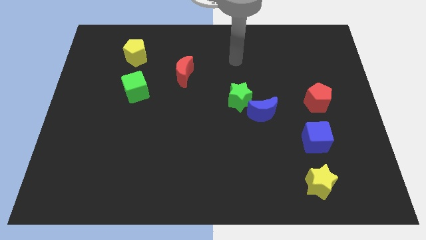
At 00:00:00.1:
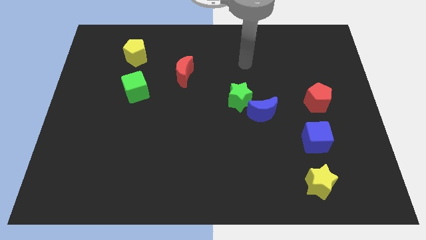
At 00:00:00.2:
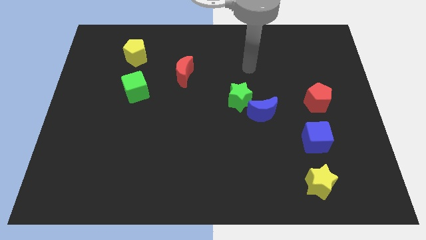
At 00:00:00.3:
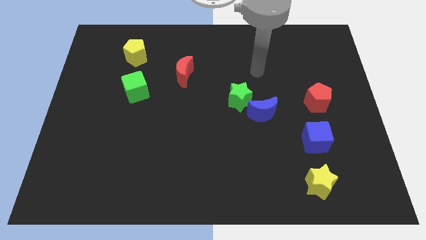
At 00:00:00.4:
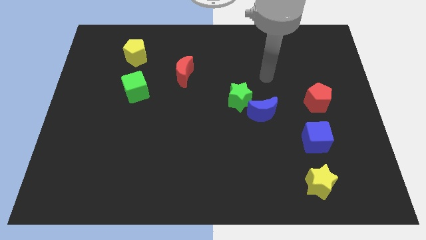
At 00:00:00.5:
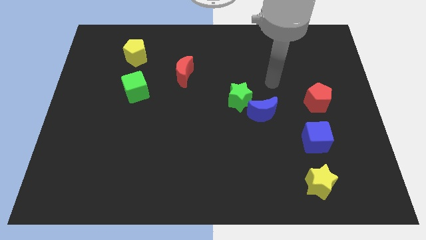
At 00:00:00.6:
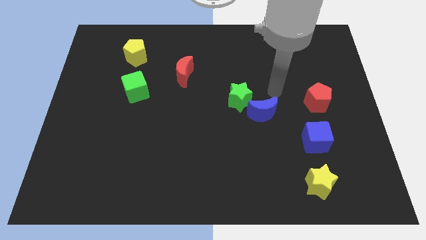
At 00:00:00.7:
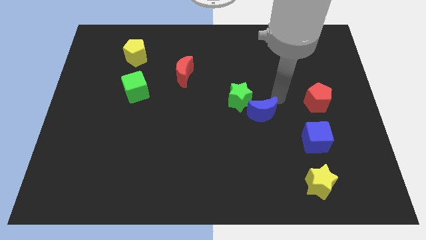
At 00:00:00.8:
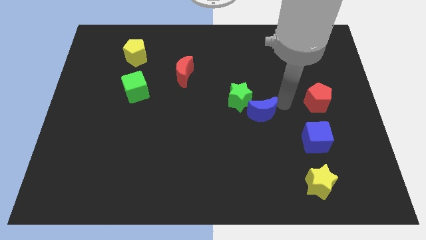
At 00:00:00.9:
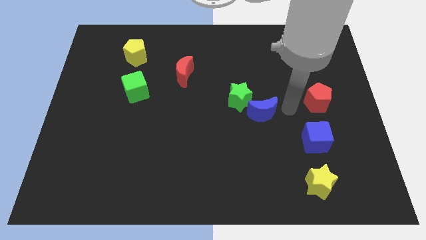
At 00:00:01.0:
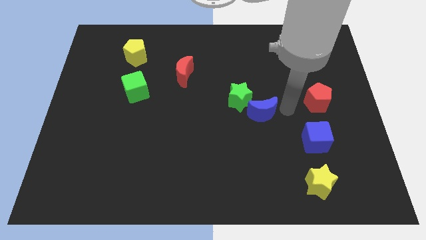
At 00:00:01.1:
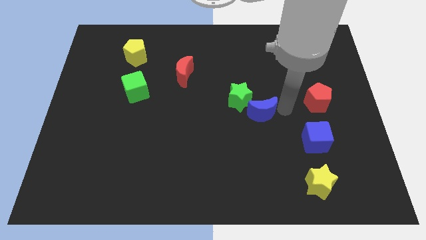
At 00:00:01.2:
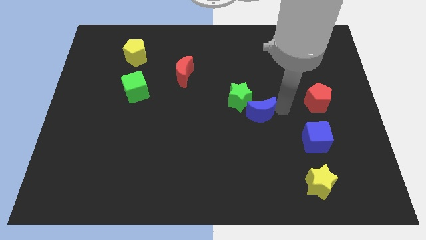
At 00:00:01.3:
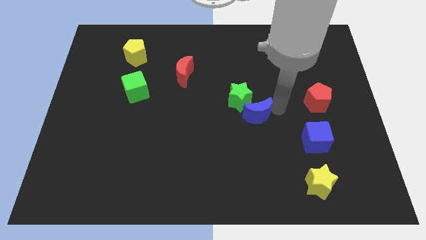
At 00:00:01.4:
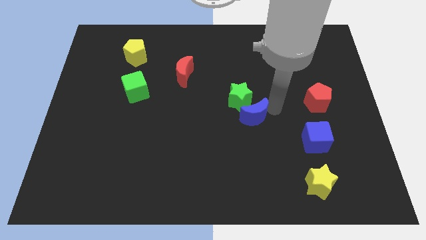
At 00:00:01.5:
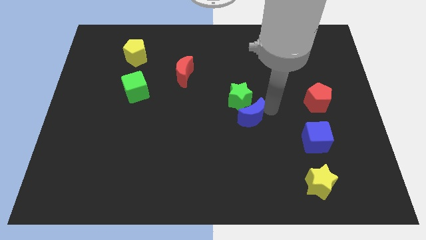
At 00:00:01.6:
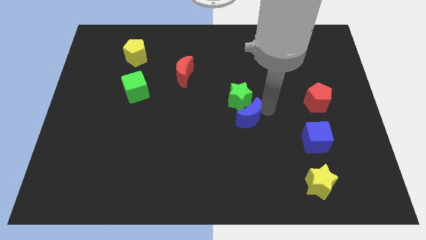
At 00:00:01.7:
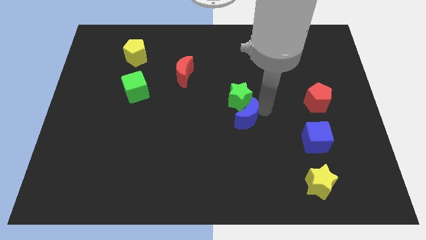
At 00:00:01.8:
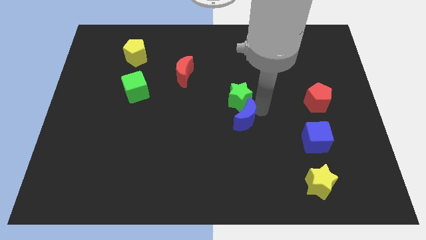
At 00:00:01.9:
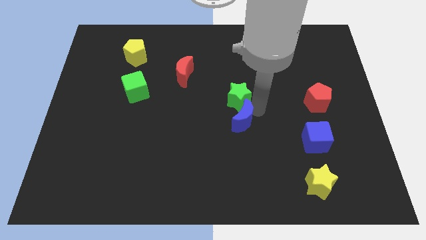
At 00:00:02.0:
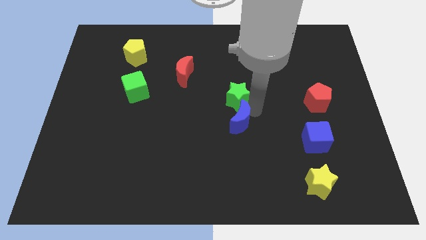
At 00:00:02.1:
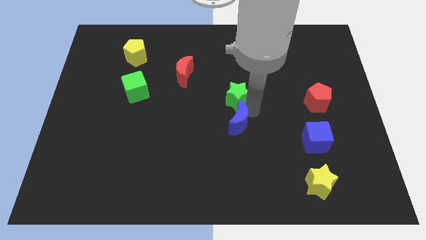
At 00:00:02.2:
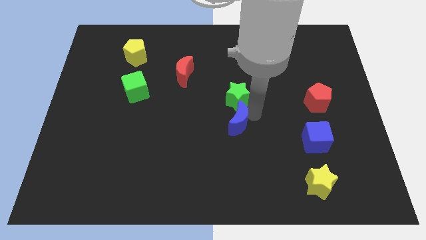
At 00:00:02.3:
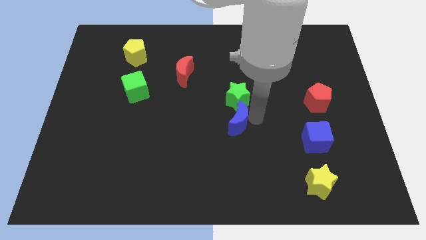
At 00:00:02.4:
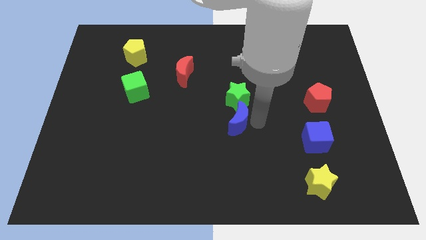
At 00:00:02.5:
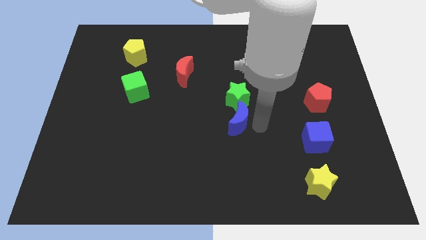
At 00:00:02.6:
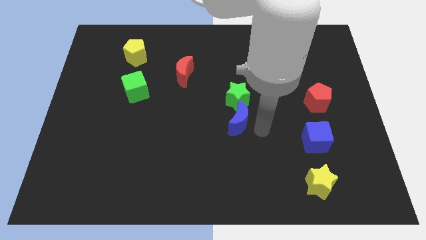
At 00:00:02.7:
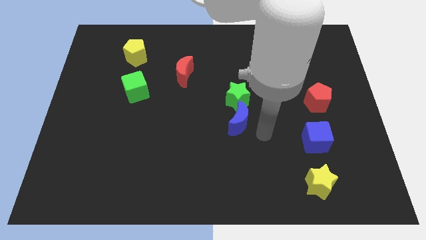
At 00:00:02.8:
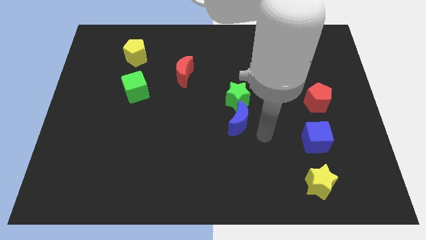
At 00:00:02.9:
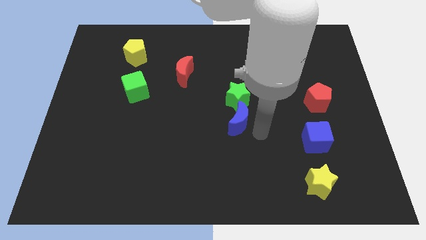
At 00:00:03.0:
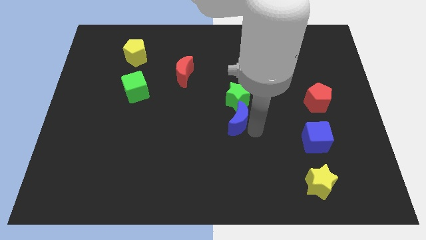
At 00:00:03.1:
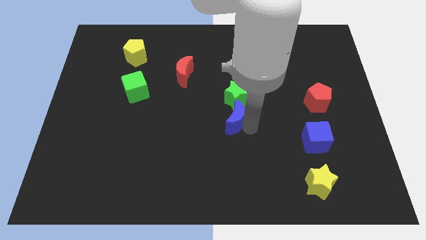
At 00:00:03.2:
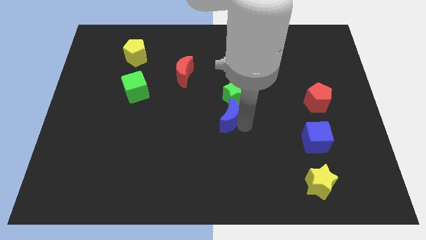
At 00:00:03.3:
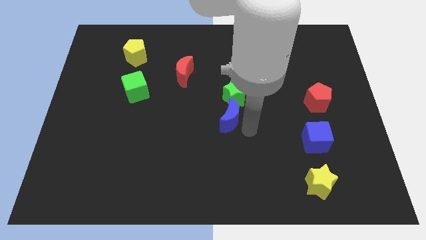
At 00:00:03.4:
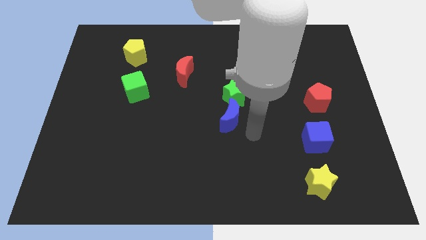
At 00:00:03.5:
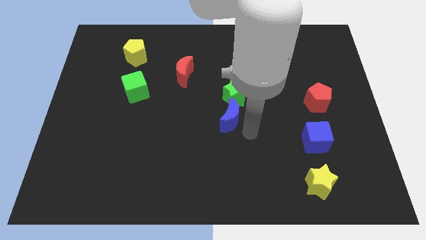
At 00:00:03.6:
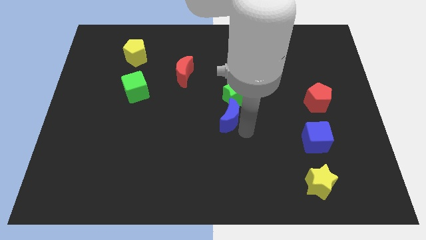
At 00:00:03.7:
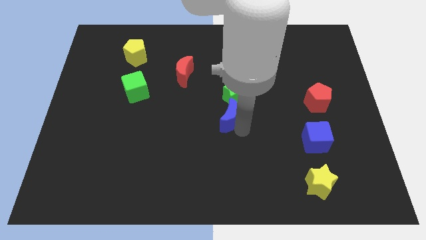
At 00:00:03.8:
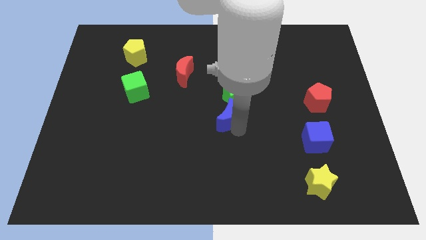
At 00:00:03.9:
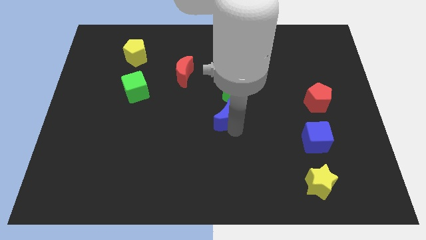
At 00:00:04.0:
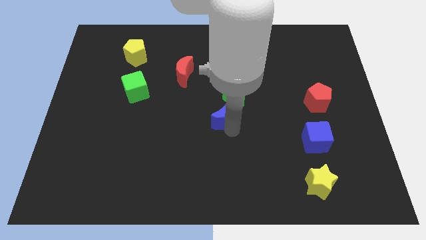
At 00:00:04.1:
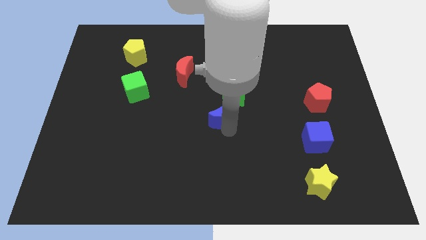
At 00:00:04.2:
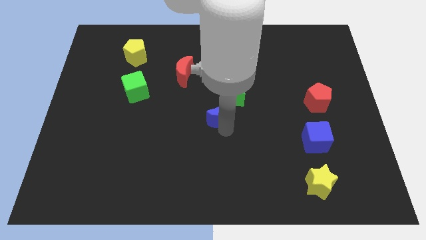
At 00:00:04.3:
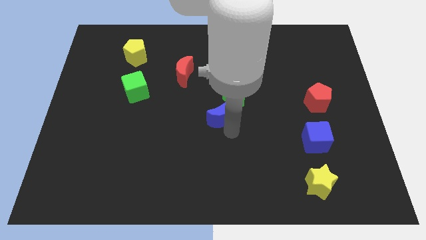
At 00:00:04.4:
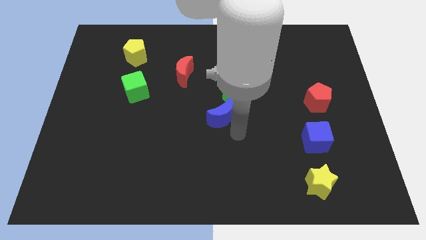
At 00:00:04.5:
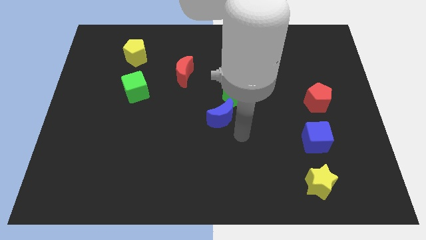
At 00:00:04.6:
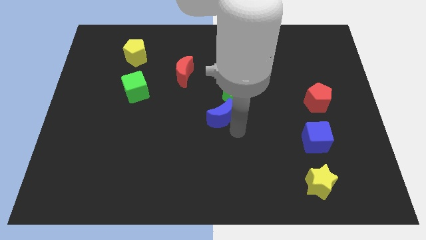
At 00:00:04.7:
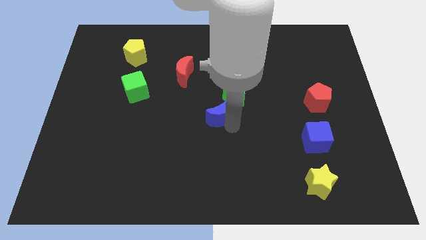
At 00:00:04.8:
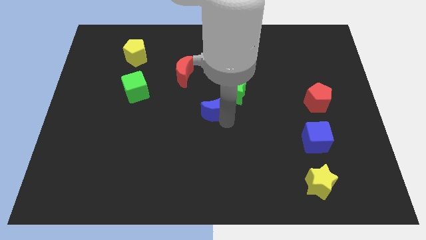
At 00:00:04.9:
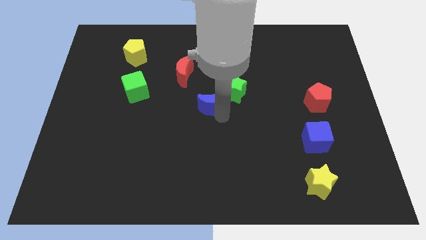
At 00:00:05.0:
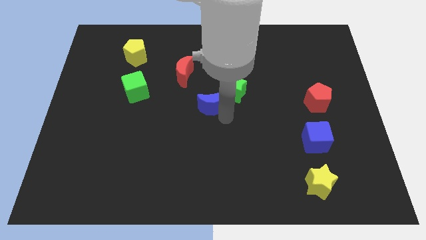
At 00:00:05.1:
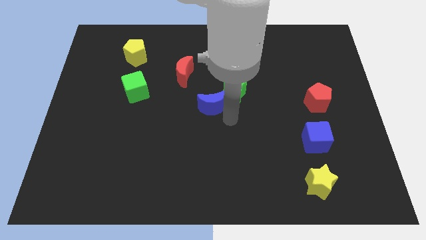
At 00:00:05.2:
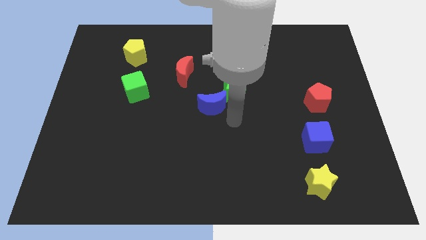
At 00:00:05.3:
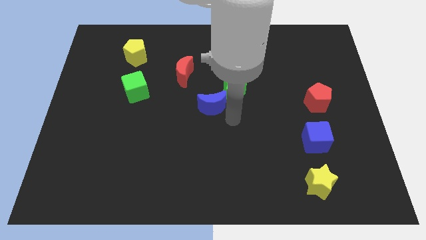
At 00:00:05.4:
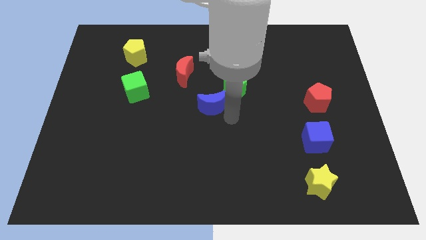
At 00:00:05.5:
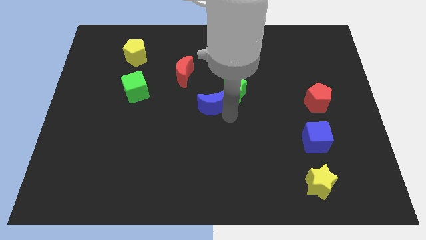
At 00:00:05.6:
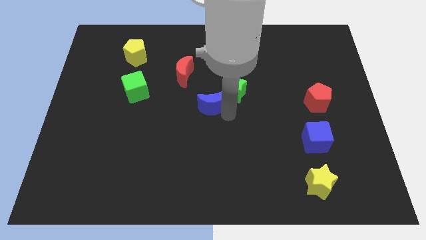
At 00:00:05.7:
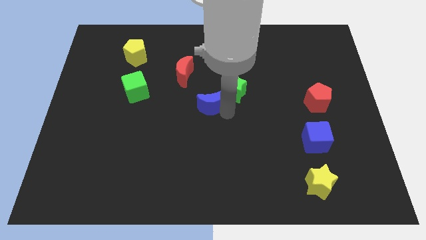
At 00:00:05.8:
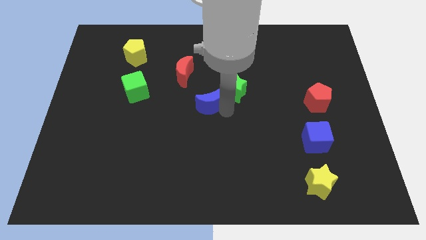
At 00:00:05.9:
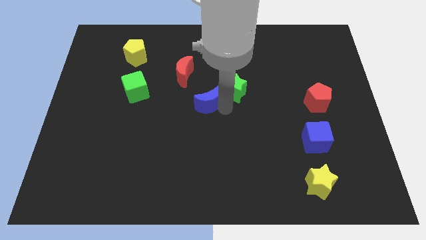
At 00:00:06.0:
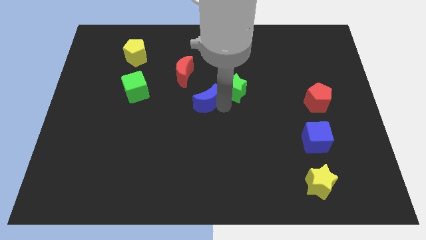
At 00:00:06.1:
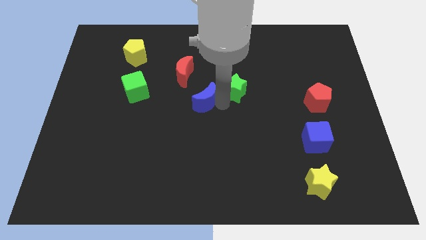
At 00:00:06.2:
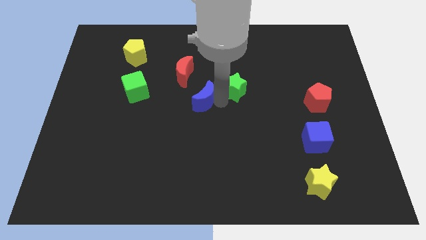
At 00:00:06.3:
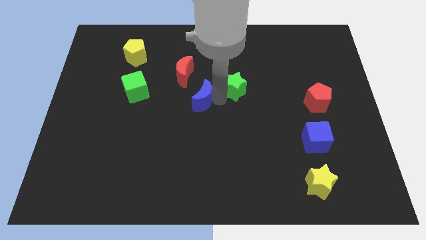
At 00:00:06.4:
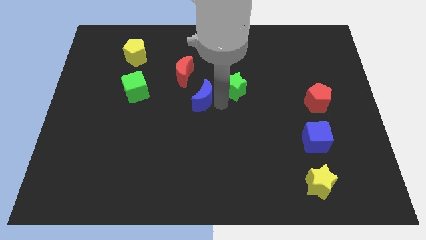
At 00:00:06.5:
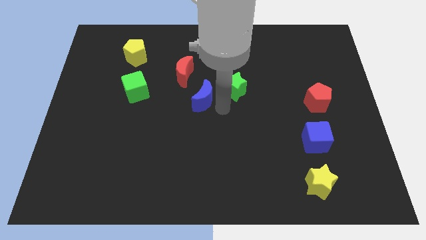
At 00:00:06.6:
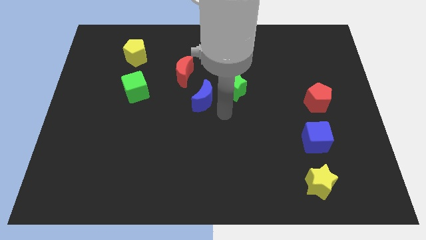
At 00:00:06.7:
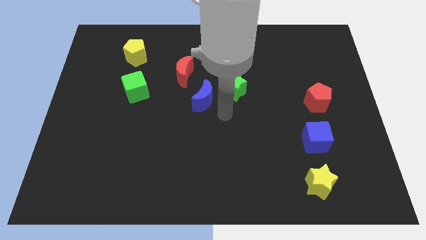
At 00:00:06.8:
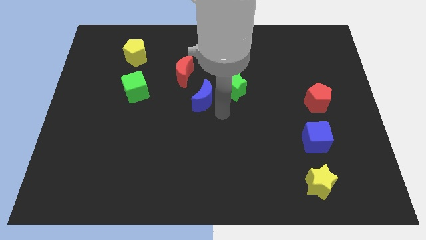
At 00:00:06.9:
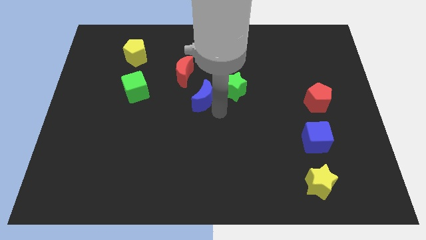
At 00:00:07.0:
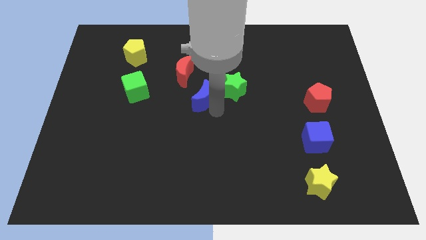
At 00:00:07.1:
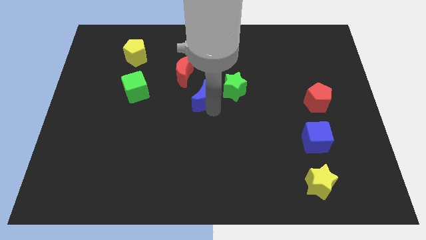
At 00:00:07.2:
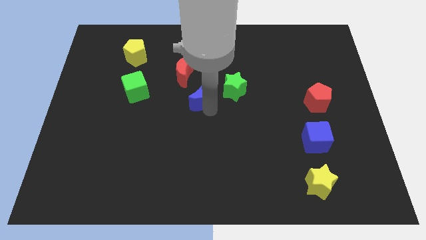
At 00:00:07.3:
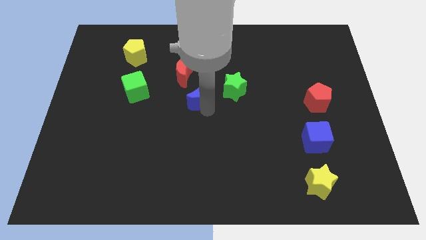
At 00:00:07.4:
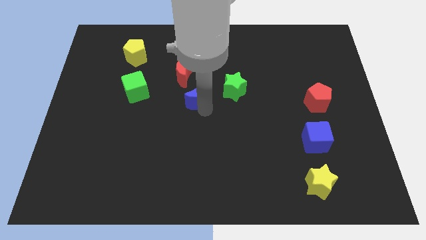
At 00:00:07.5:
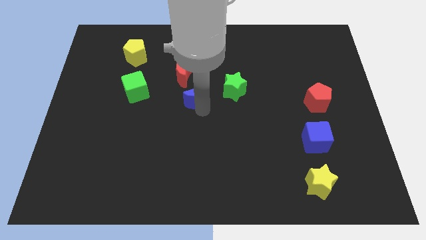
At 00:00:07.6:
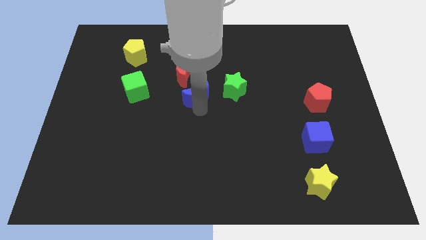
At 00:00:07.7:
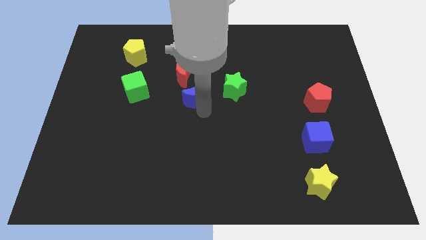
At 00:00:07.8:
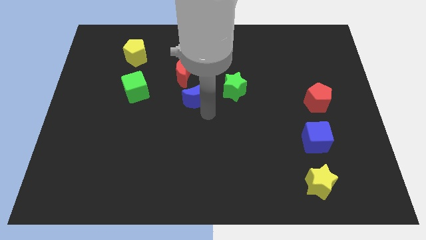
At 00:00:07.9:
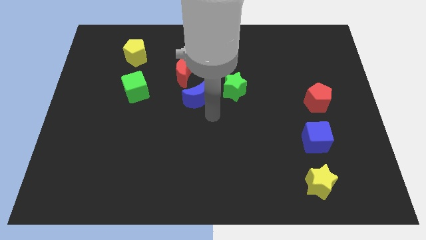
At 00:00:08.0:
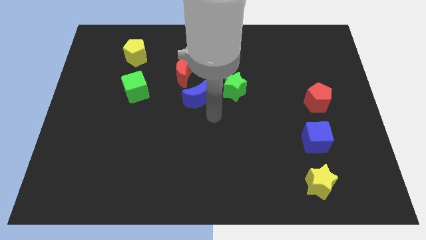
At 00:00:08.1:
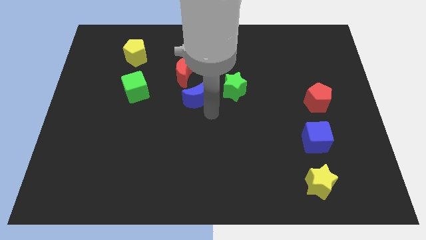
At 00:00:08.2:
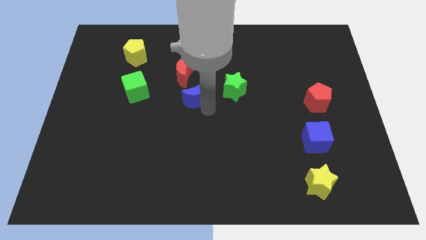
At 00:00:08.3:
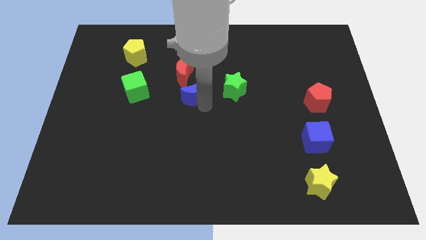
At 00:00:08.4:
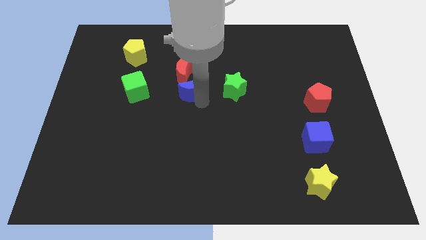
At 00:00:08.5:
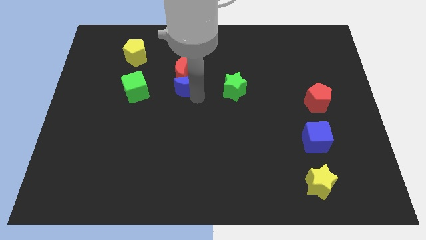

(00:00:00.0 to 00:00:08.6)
push the blue moon towards the red moon
